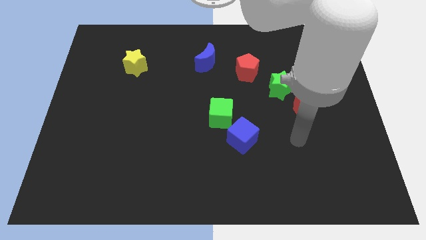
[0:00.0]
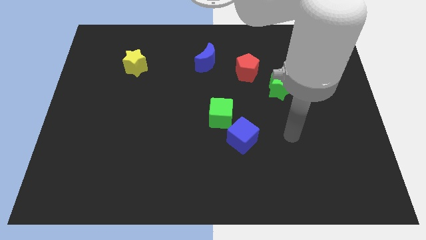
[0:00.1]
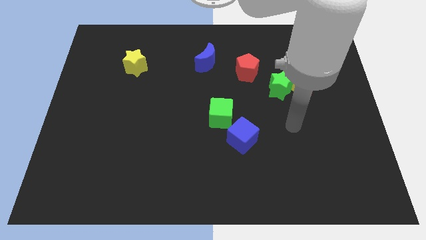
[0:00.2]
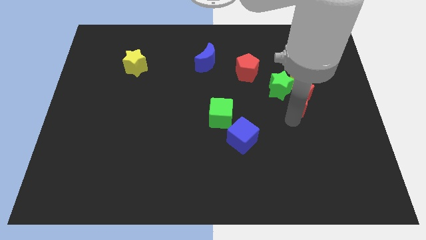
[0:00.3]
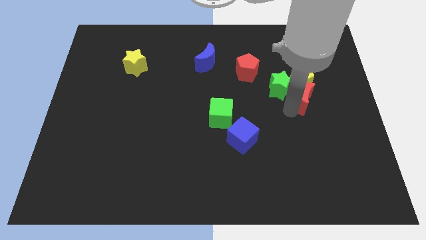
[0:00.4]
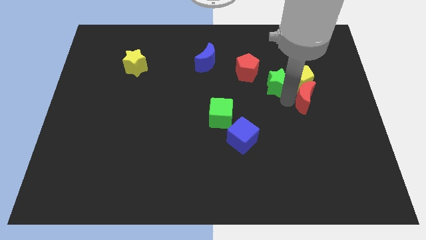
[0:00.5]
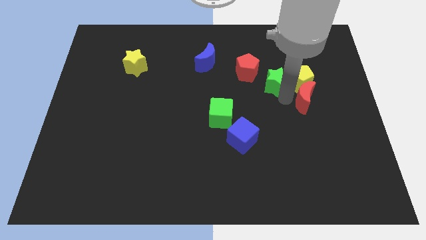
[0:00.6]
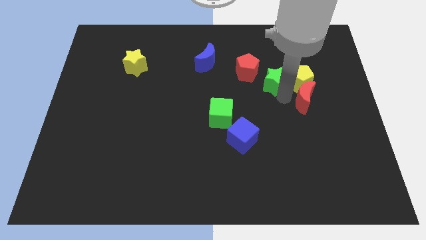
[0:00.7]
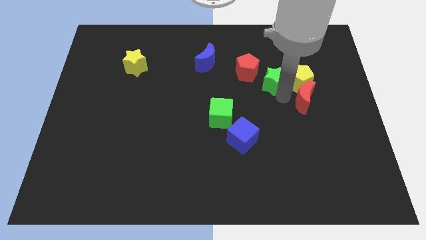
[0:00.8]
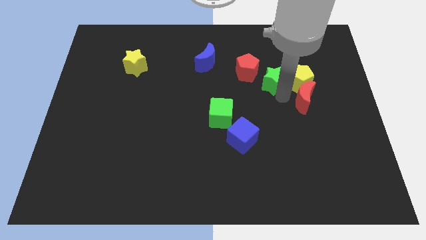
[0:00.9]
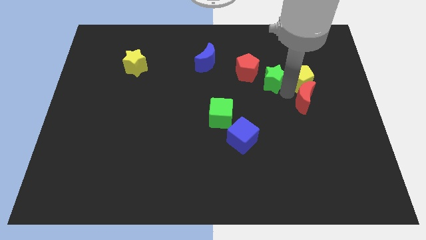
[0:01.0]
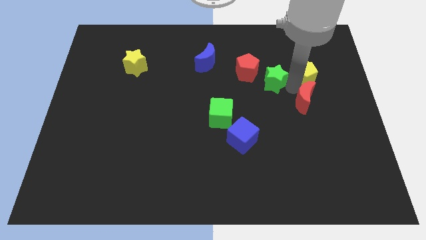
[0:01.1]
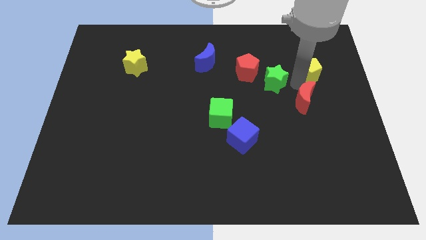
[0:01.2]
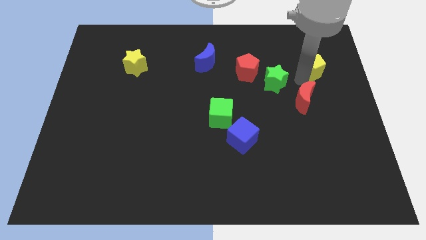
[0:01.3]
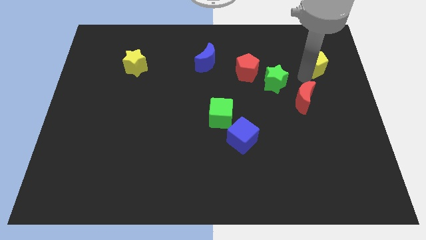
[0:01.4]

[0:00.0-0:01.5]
pull the yellow pentagon apart from the green star and red moon

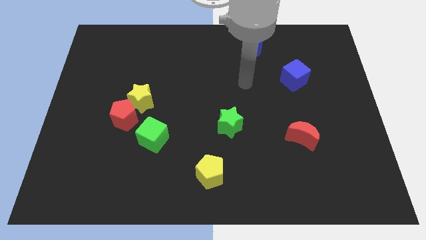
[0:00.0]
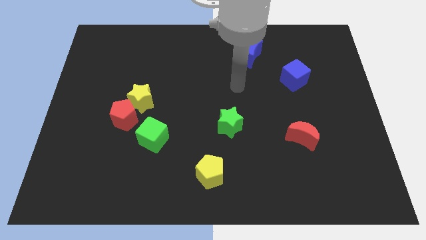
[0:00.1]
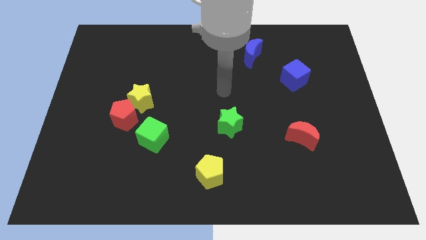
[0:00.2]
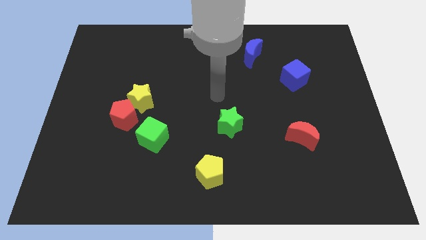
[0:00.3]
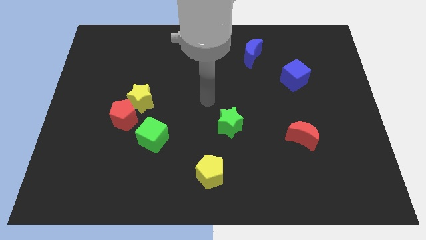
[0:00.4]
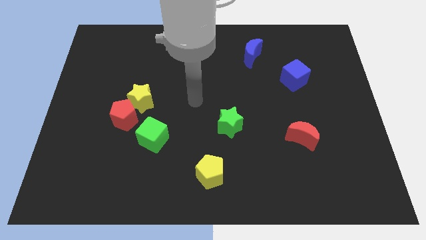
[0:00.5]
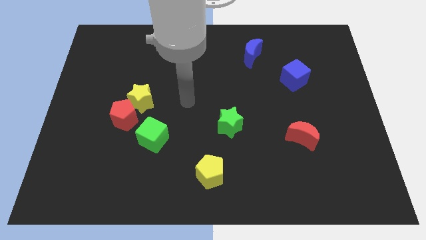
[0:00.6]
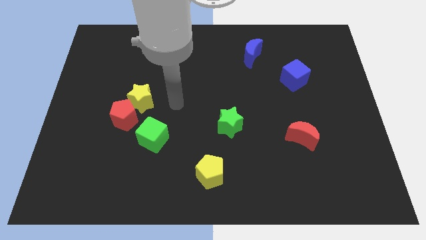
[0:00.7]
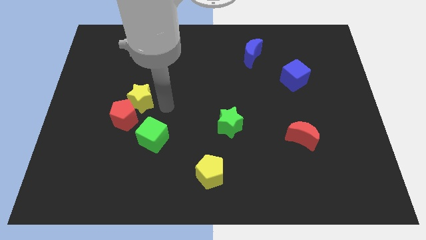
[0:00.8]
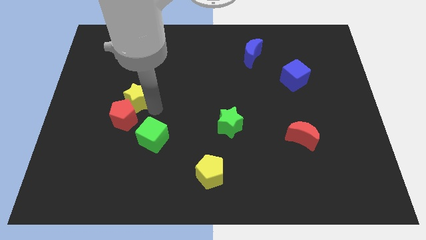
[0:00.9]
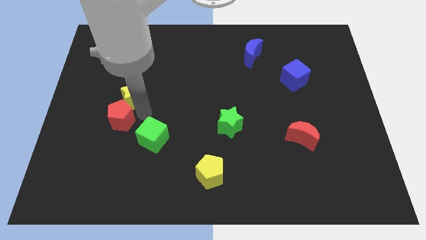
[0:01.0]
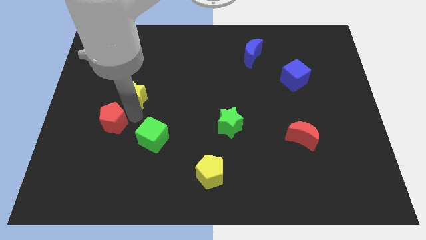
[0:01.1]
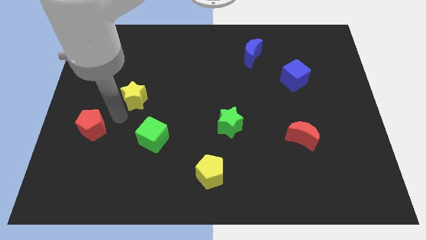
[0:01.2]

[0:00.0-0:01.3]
pull the yellow star apart from the red pentagon

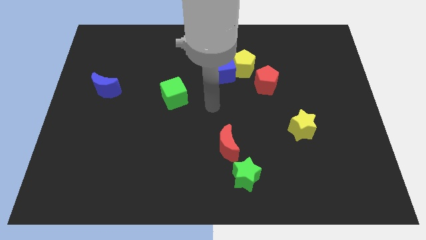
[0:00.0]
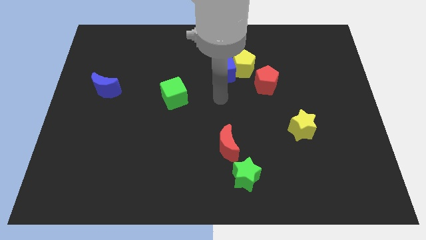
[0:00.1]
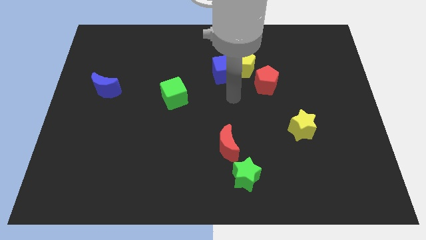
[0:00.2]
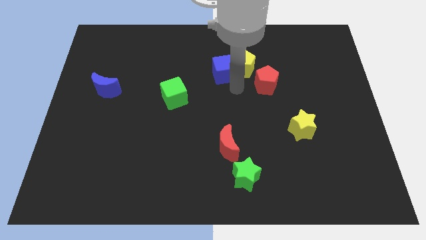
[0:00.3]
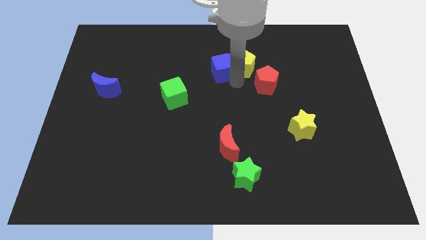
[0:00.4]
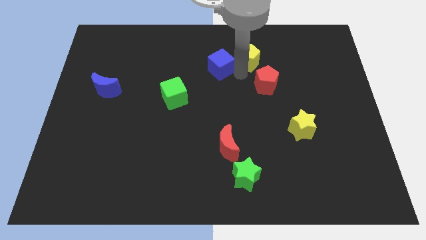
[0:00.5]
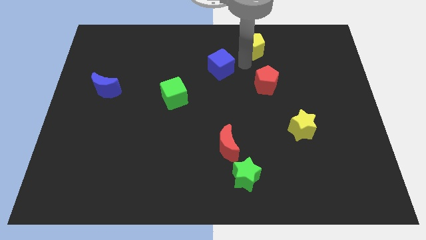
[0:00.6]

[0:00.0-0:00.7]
separate the blue cube from the yellow pentagon

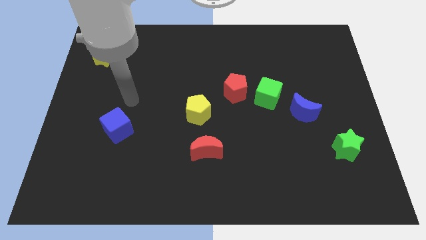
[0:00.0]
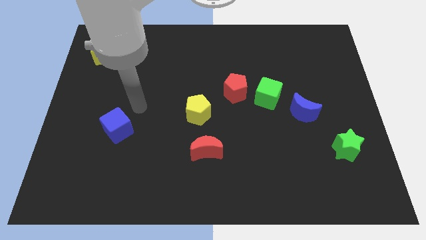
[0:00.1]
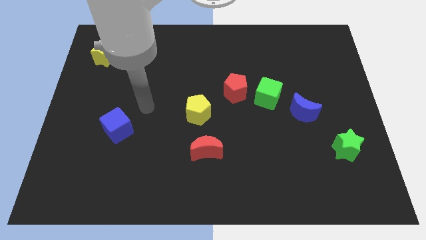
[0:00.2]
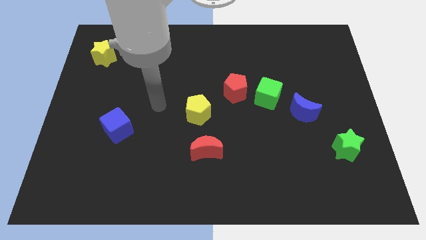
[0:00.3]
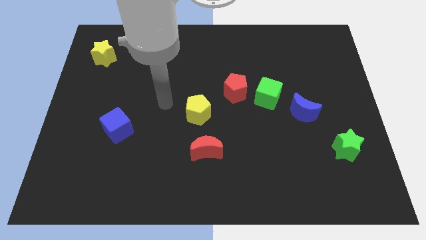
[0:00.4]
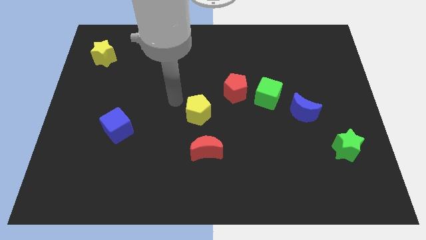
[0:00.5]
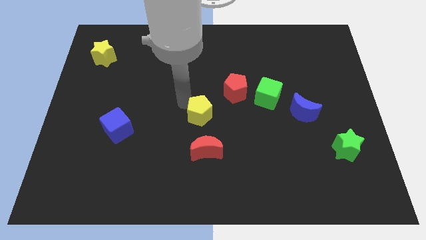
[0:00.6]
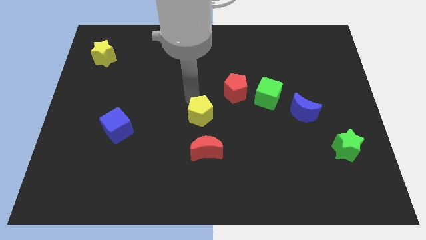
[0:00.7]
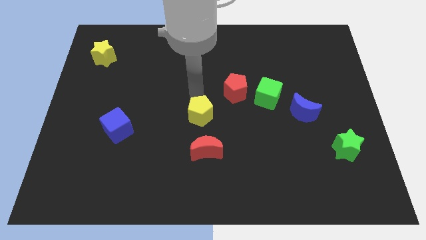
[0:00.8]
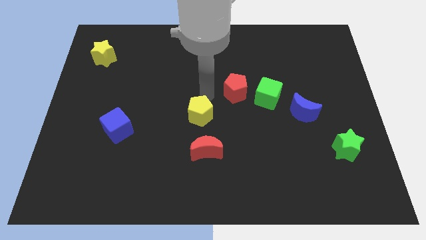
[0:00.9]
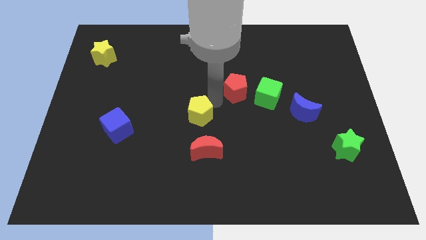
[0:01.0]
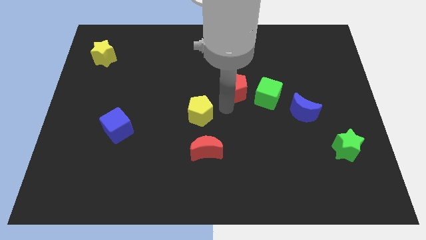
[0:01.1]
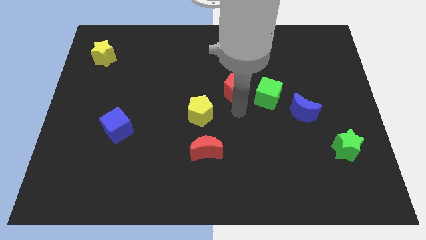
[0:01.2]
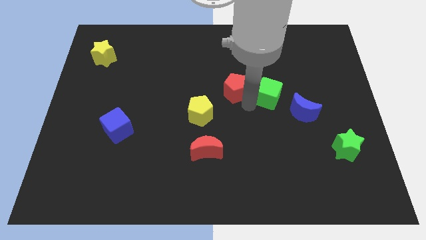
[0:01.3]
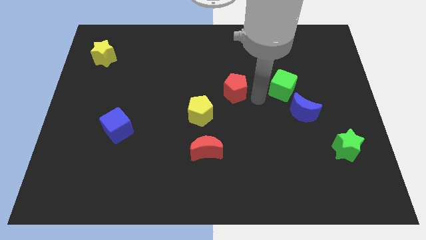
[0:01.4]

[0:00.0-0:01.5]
move the red pentagon away from the green cube

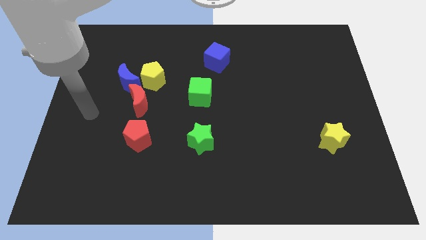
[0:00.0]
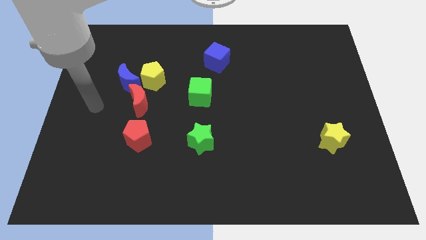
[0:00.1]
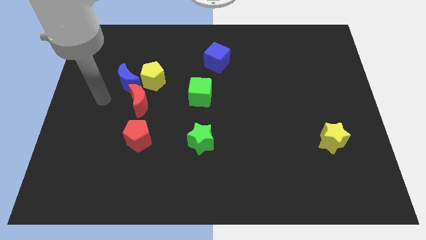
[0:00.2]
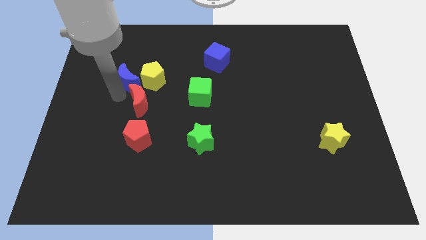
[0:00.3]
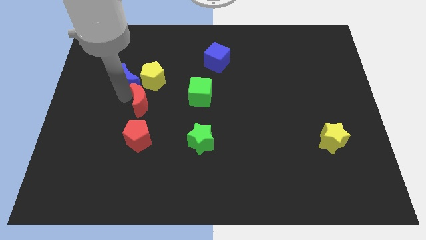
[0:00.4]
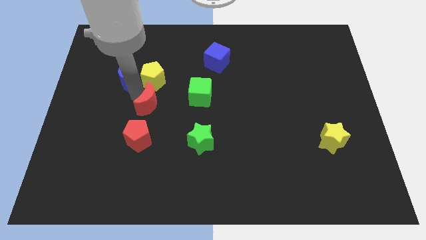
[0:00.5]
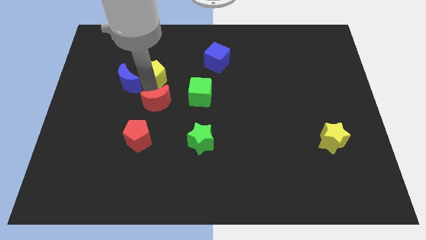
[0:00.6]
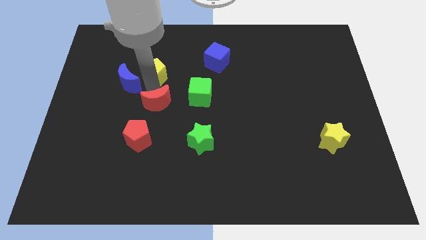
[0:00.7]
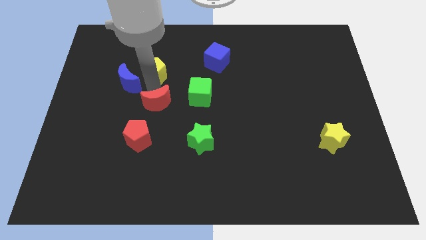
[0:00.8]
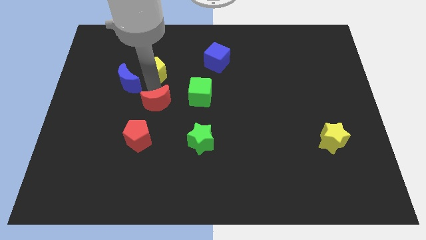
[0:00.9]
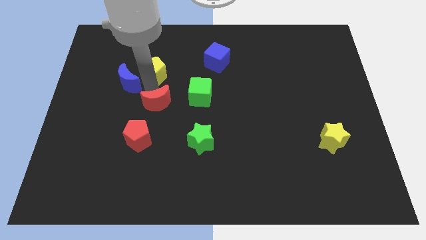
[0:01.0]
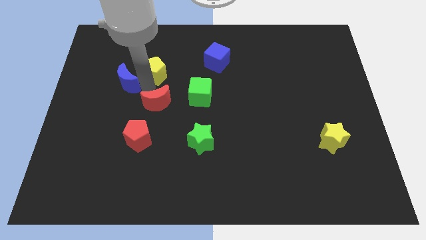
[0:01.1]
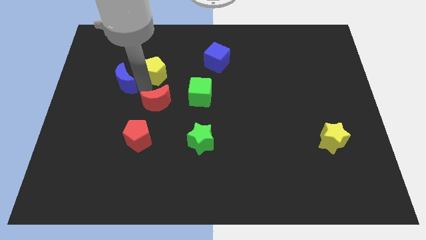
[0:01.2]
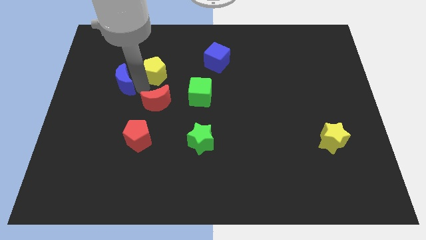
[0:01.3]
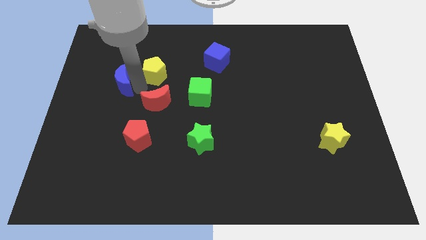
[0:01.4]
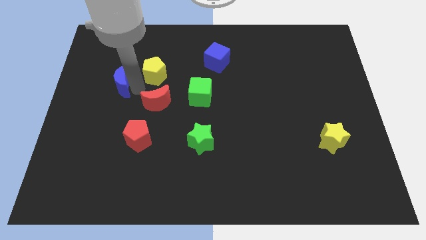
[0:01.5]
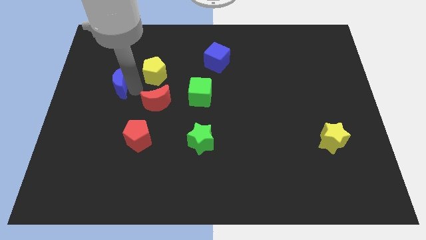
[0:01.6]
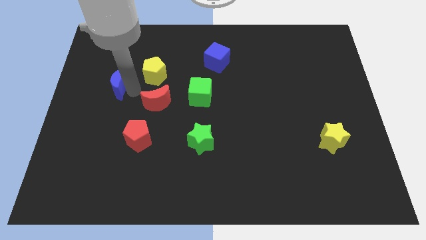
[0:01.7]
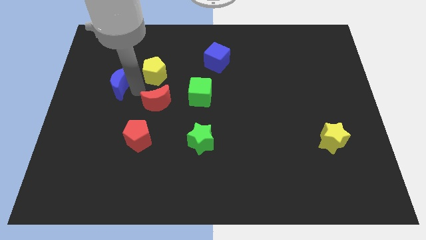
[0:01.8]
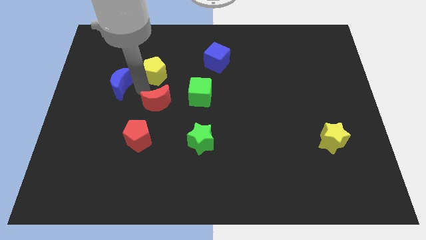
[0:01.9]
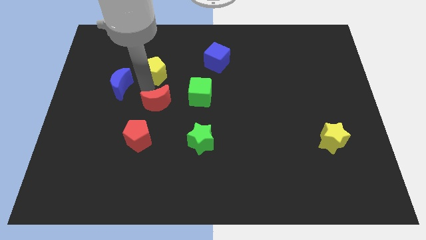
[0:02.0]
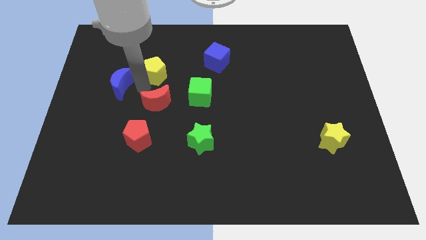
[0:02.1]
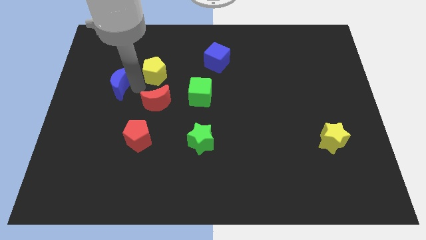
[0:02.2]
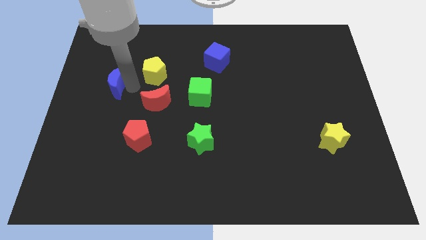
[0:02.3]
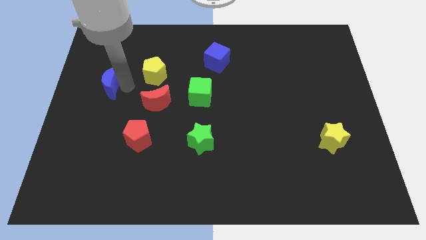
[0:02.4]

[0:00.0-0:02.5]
move the blue moon away from the yellow pentagon and red moon

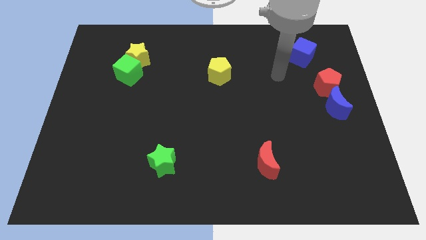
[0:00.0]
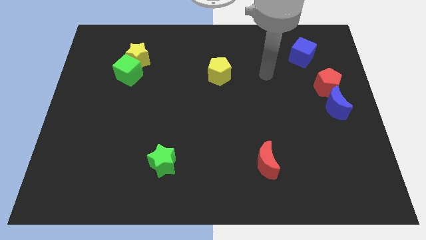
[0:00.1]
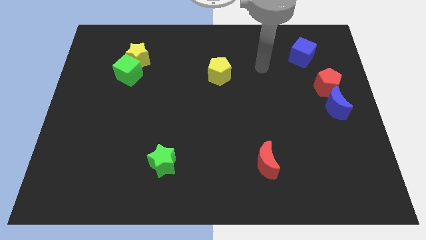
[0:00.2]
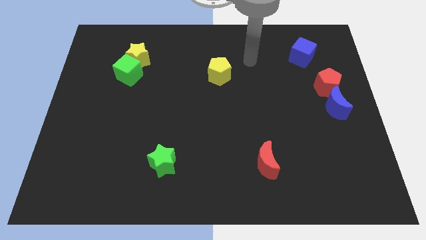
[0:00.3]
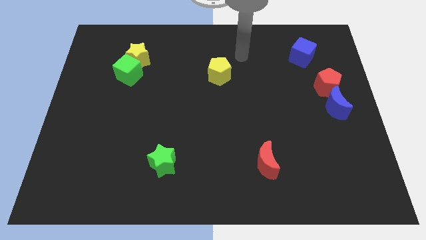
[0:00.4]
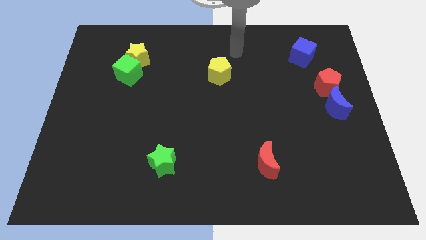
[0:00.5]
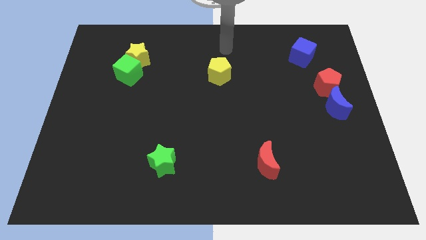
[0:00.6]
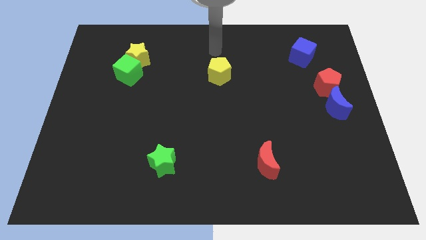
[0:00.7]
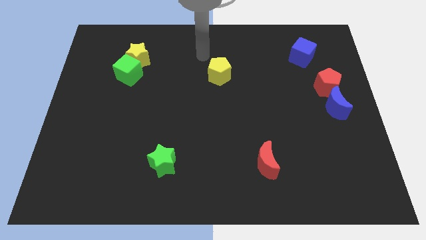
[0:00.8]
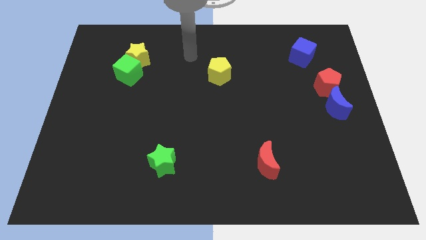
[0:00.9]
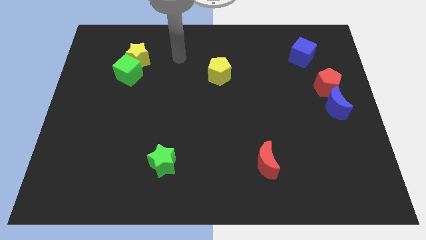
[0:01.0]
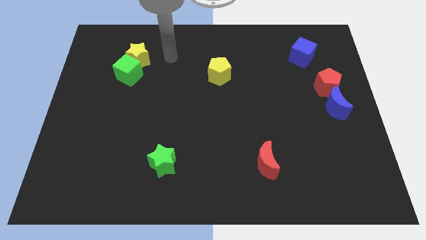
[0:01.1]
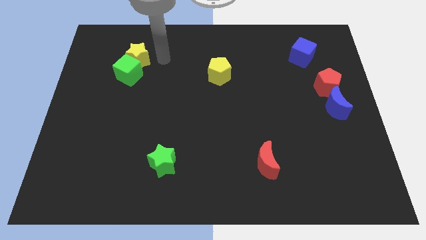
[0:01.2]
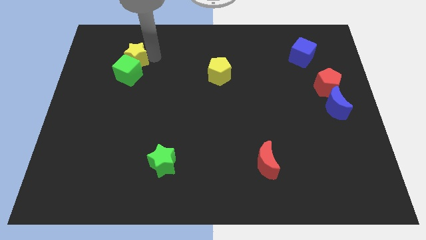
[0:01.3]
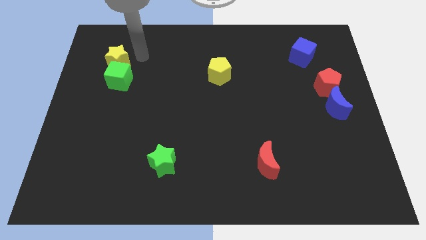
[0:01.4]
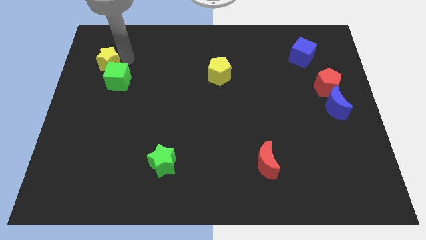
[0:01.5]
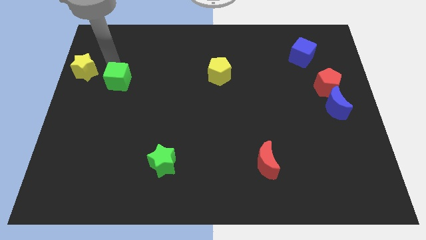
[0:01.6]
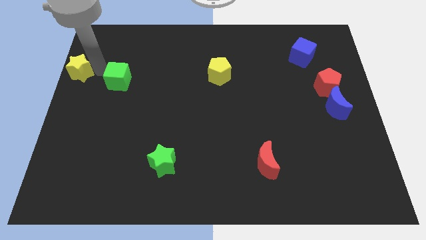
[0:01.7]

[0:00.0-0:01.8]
move the green cube away from the yellow star
